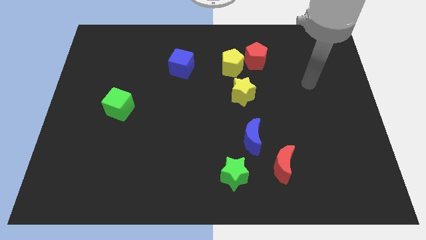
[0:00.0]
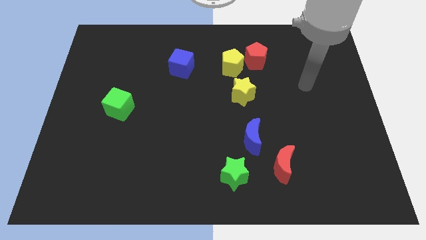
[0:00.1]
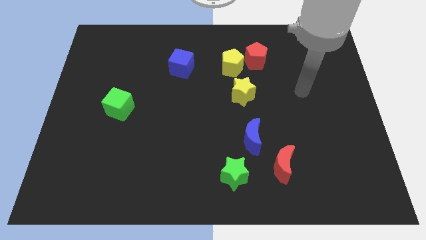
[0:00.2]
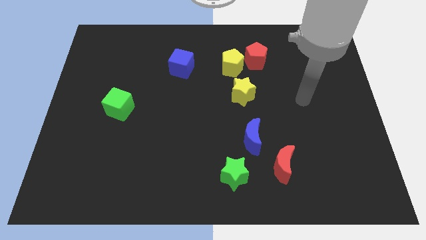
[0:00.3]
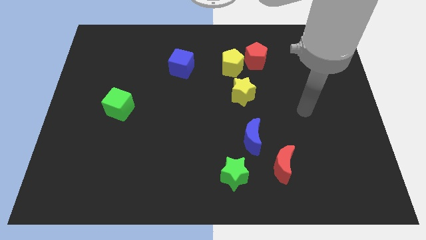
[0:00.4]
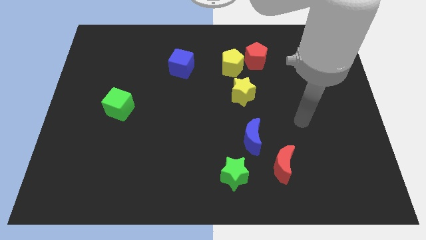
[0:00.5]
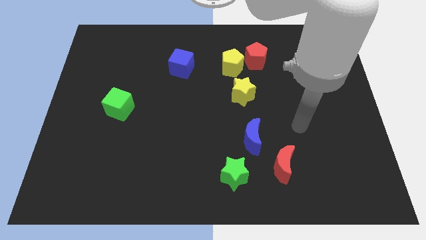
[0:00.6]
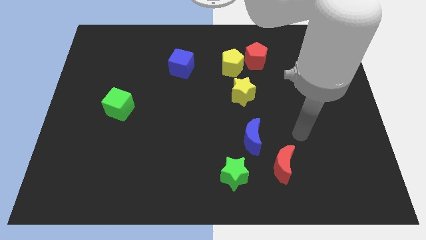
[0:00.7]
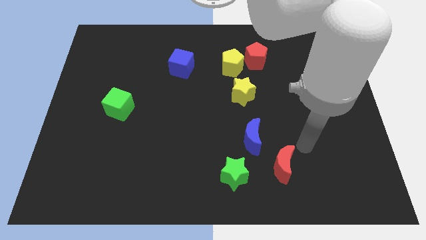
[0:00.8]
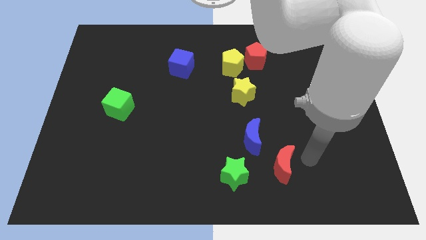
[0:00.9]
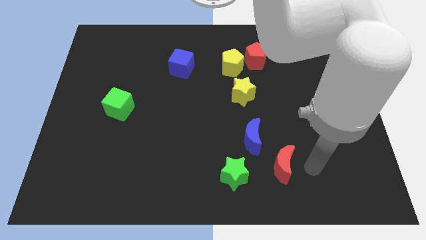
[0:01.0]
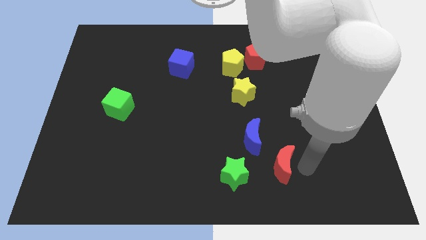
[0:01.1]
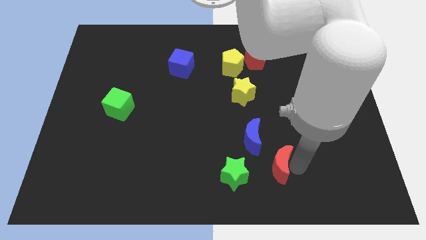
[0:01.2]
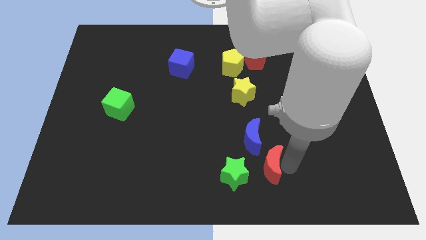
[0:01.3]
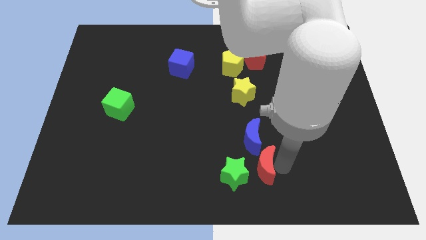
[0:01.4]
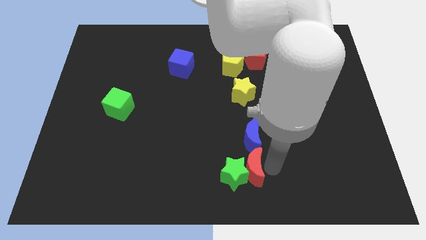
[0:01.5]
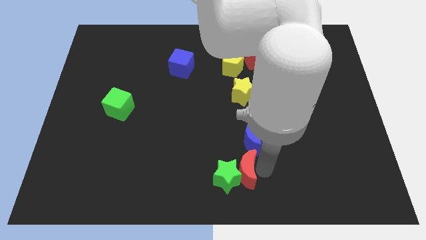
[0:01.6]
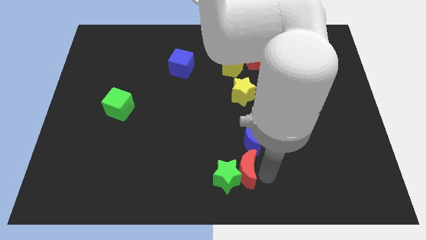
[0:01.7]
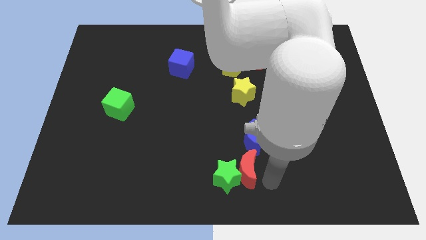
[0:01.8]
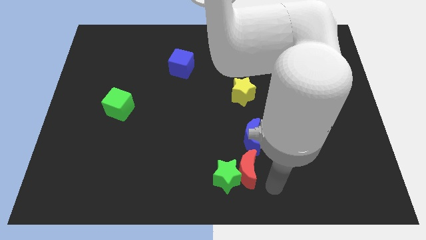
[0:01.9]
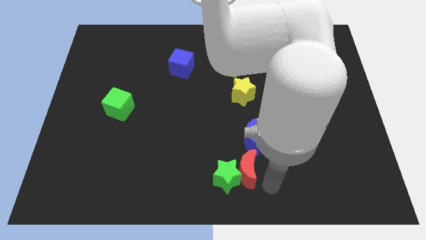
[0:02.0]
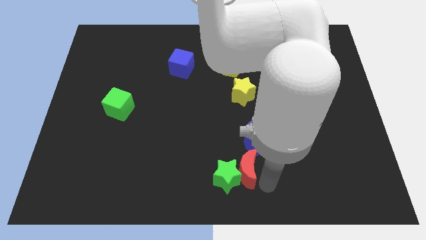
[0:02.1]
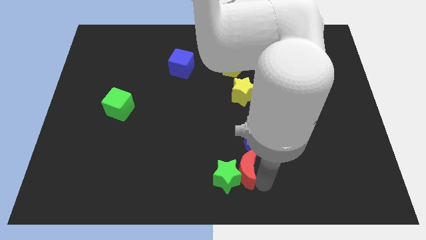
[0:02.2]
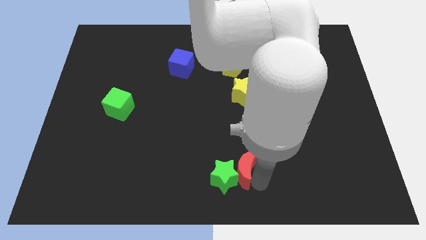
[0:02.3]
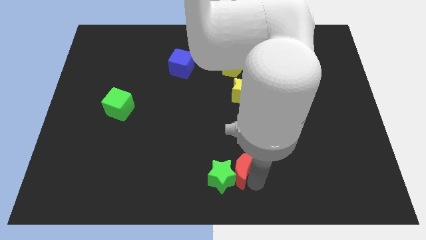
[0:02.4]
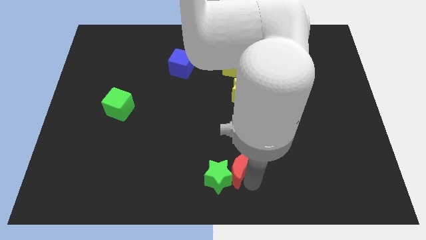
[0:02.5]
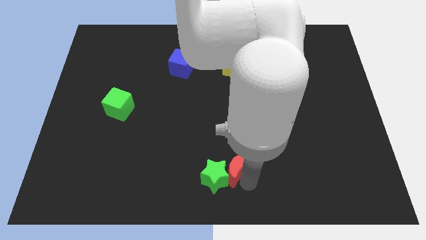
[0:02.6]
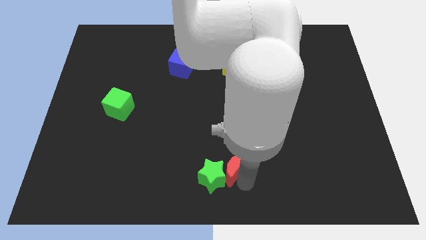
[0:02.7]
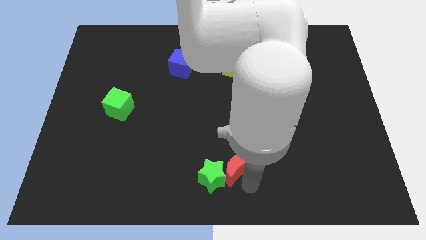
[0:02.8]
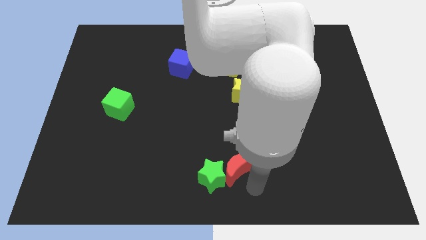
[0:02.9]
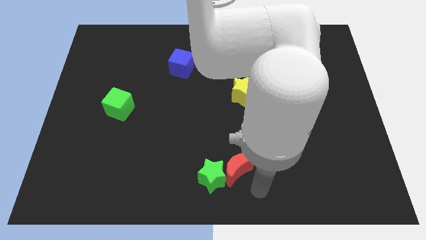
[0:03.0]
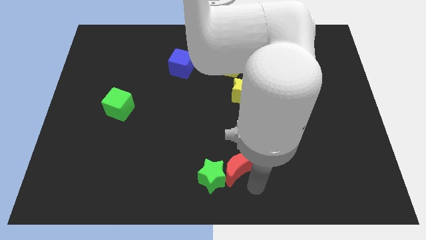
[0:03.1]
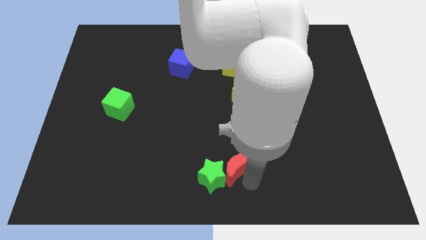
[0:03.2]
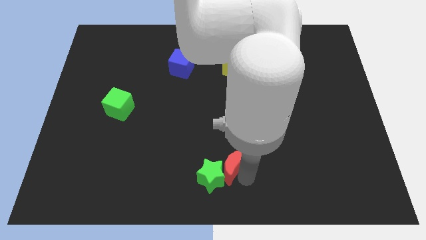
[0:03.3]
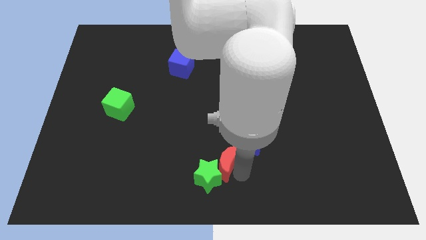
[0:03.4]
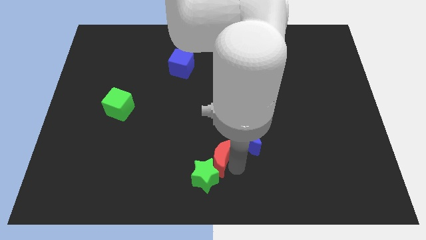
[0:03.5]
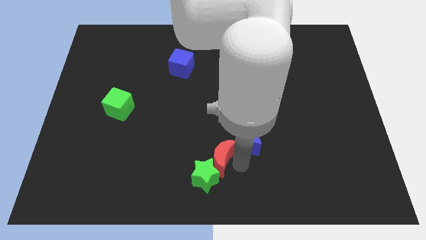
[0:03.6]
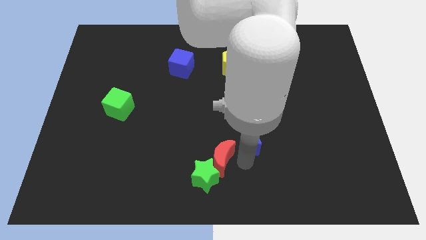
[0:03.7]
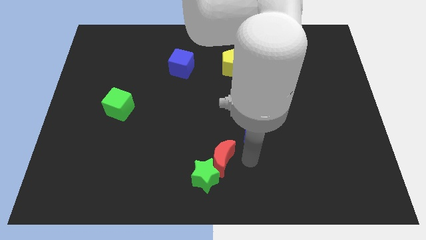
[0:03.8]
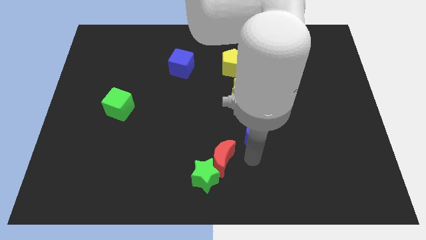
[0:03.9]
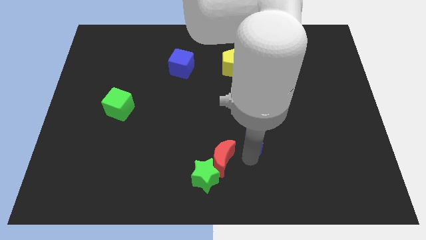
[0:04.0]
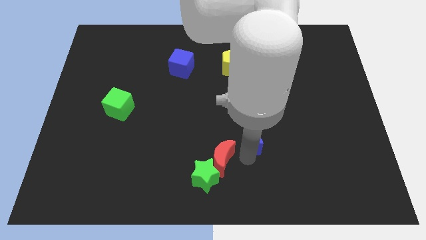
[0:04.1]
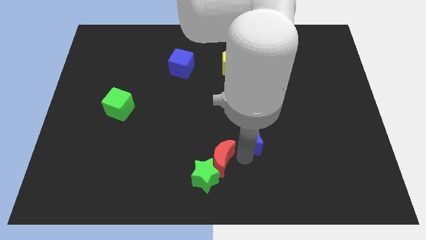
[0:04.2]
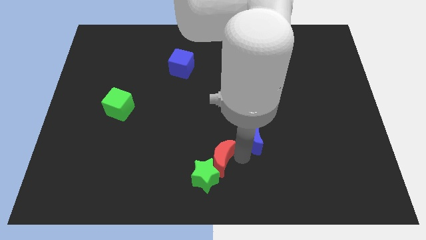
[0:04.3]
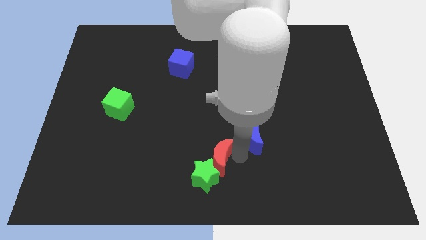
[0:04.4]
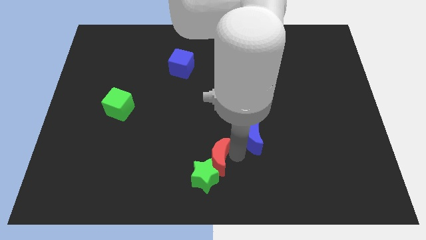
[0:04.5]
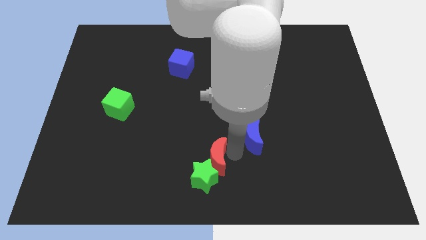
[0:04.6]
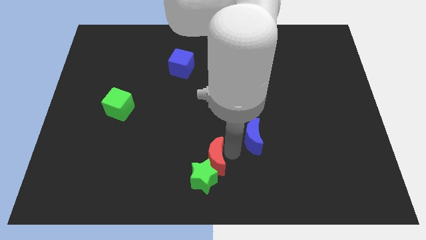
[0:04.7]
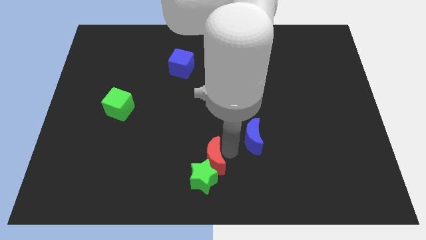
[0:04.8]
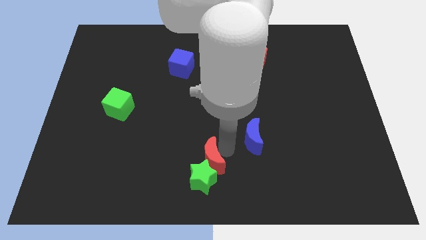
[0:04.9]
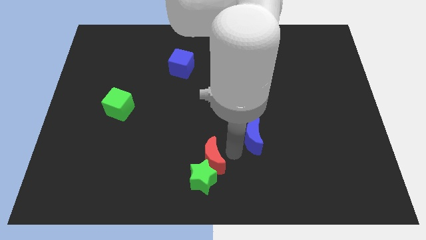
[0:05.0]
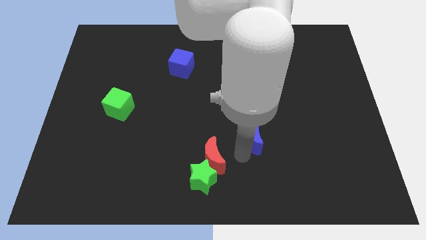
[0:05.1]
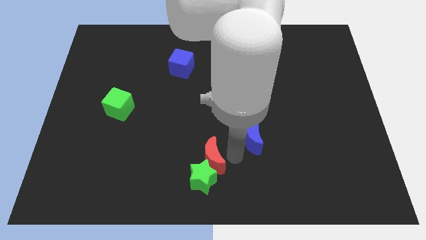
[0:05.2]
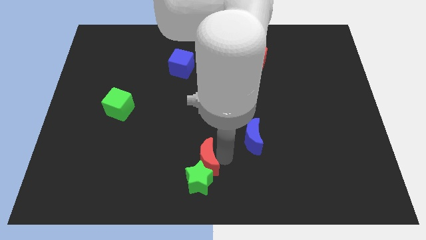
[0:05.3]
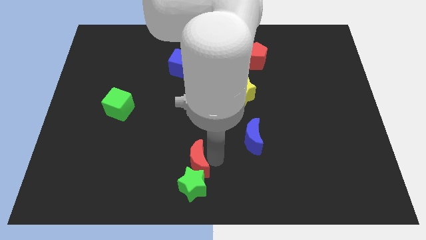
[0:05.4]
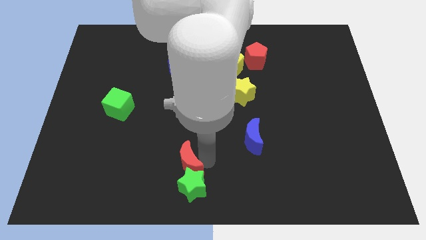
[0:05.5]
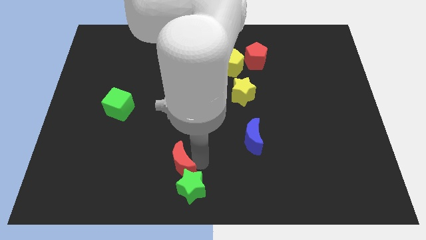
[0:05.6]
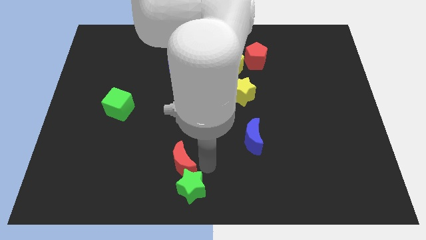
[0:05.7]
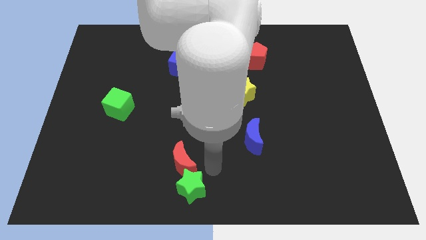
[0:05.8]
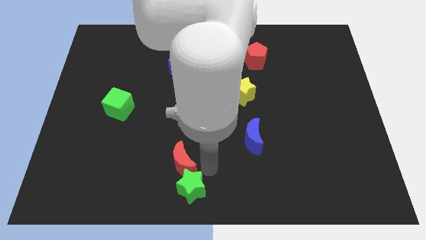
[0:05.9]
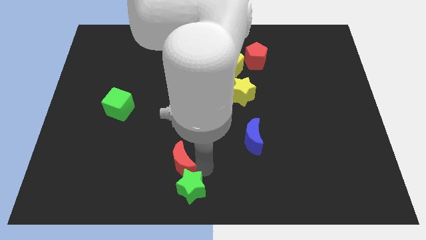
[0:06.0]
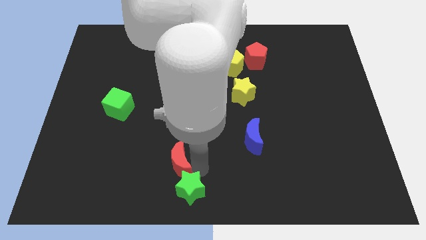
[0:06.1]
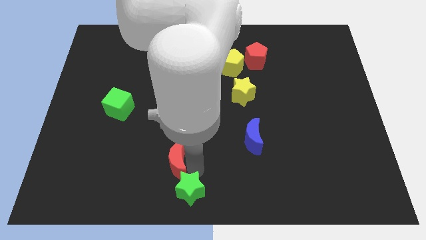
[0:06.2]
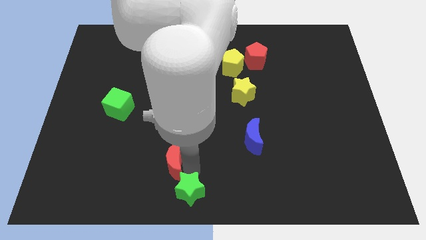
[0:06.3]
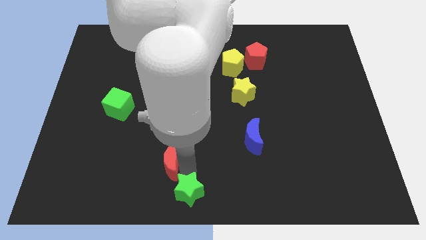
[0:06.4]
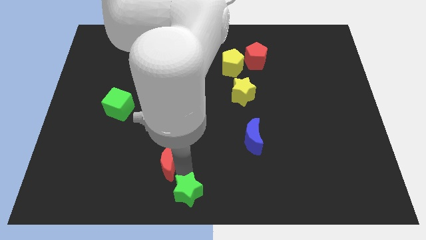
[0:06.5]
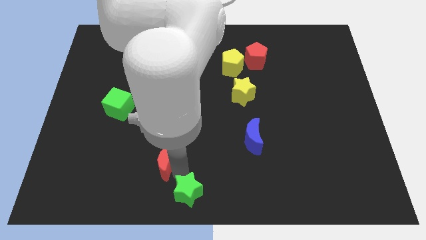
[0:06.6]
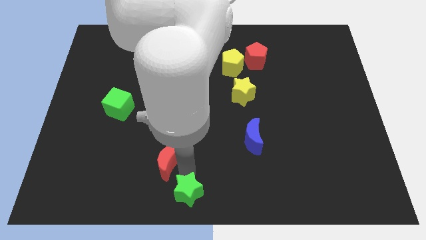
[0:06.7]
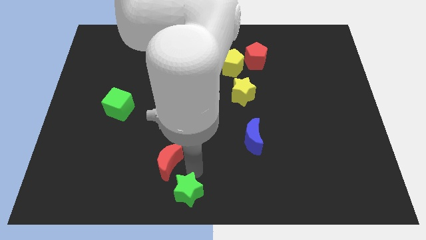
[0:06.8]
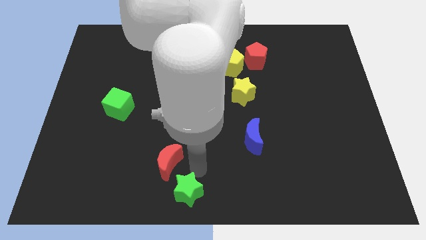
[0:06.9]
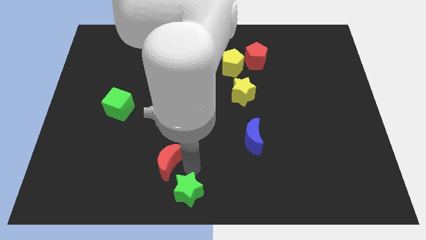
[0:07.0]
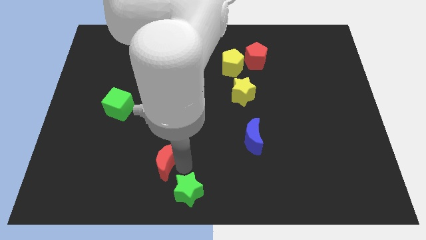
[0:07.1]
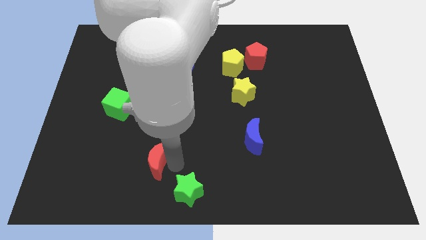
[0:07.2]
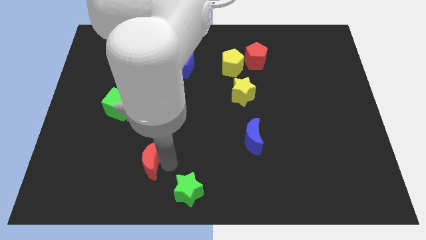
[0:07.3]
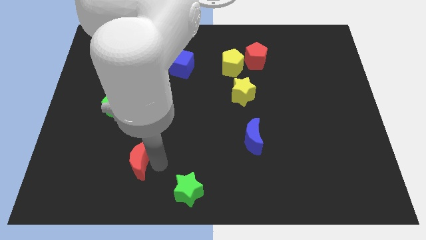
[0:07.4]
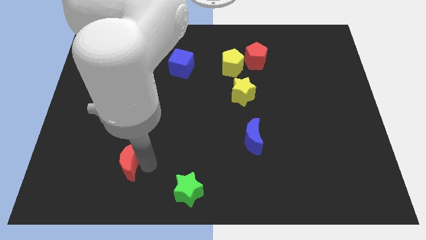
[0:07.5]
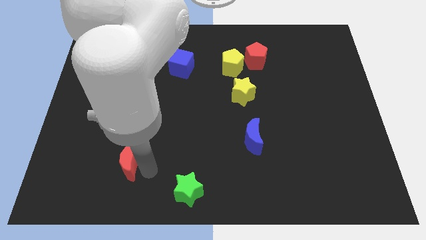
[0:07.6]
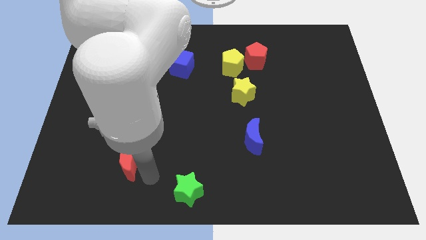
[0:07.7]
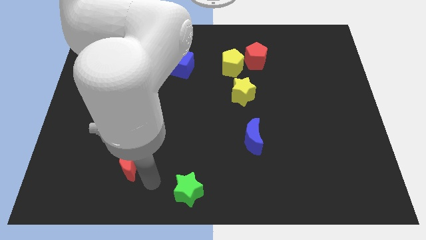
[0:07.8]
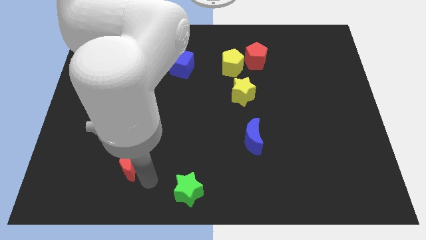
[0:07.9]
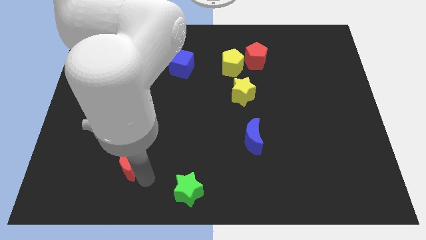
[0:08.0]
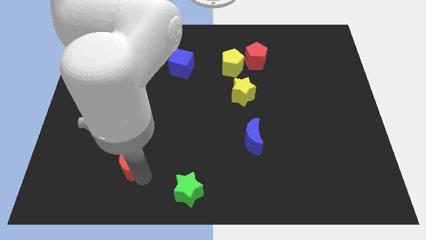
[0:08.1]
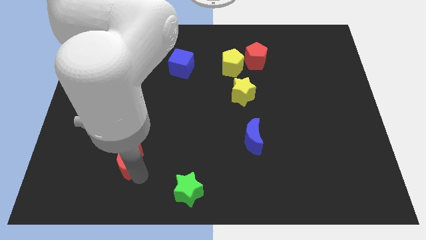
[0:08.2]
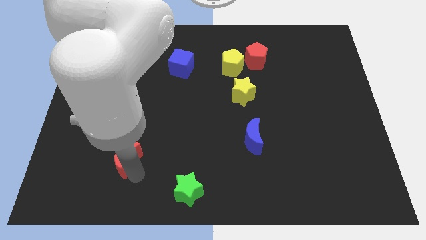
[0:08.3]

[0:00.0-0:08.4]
move the red moon to the bottom of the green cube
